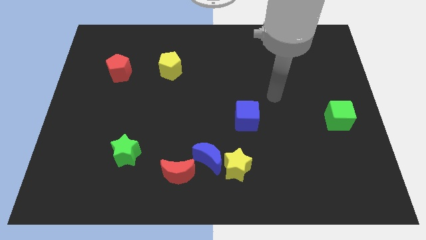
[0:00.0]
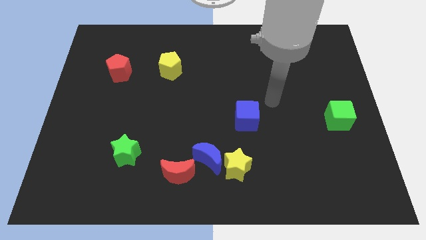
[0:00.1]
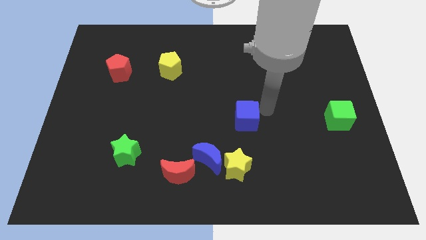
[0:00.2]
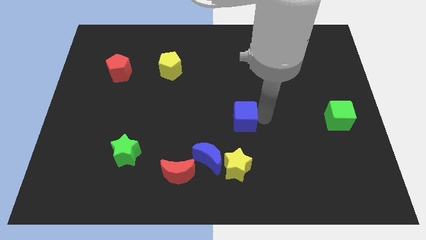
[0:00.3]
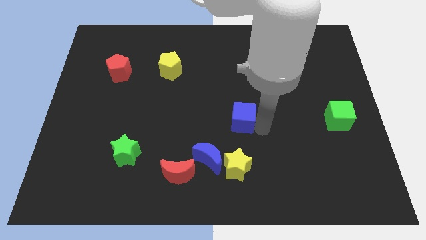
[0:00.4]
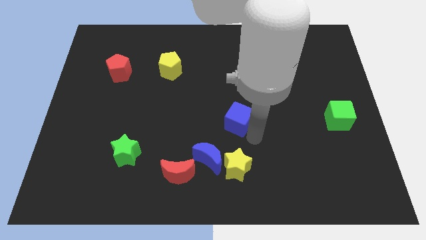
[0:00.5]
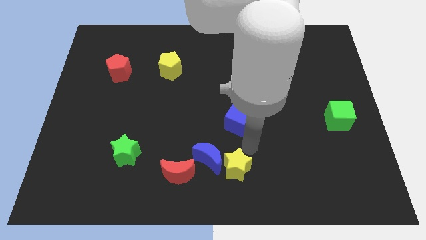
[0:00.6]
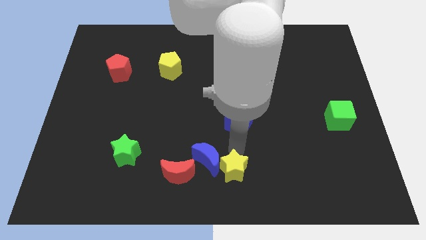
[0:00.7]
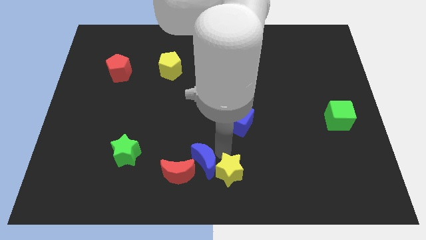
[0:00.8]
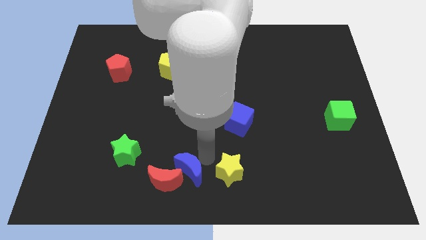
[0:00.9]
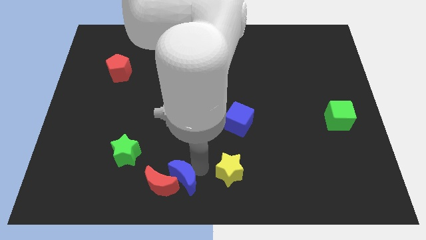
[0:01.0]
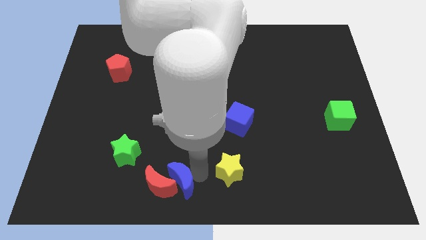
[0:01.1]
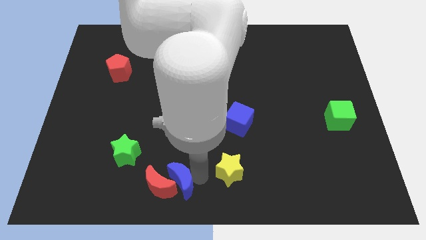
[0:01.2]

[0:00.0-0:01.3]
pull the yellow star apart from the blue moon

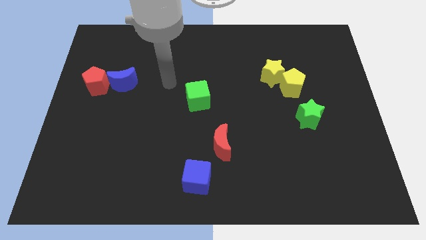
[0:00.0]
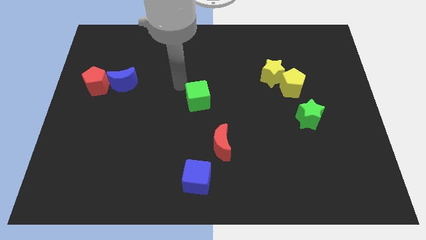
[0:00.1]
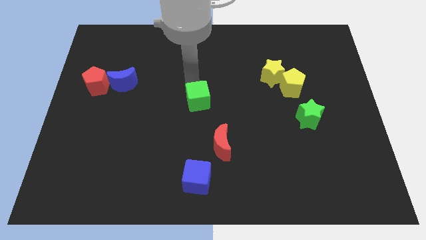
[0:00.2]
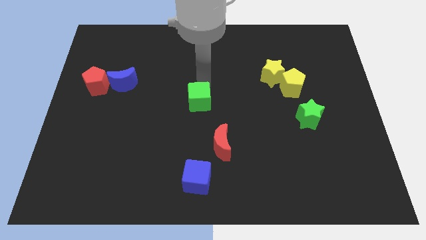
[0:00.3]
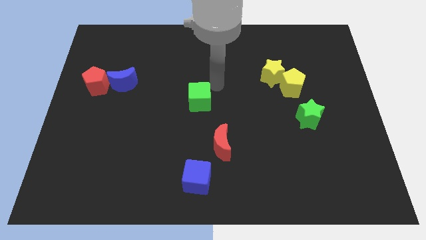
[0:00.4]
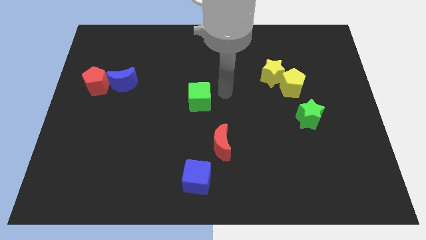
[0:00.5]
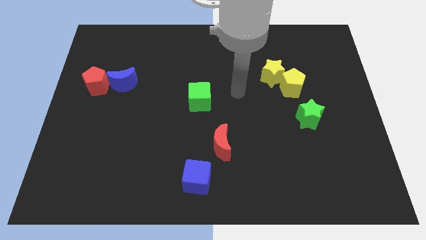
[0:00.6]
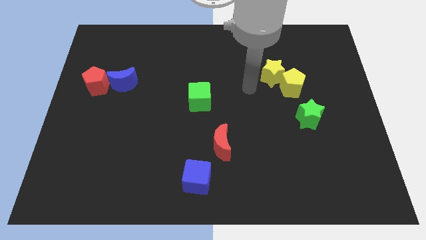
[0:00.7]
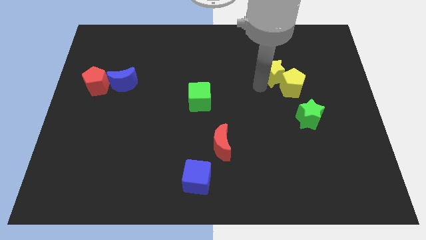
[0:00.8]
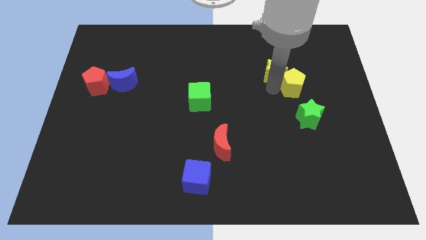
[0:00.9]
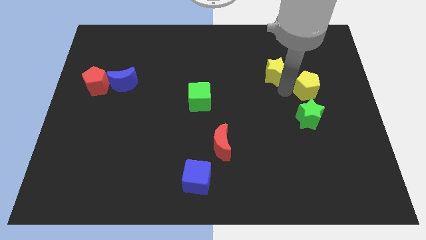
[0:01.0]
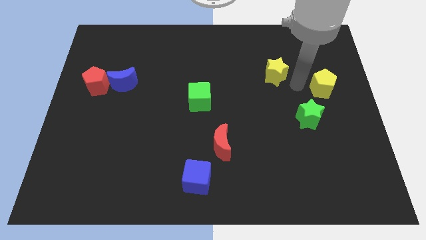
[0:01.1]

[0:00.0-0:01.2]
separate the yellow star from the yellow pentagon

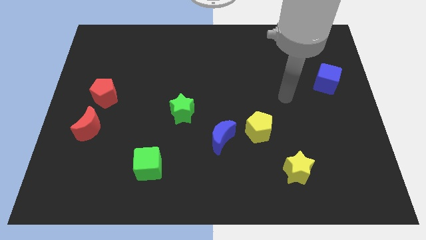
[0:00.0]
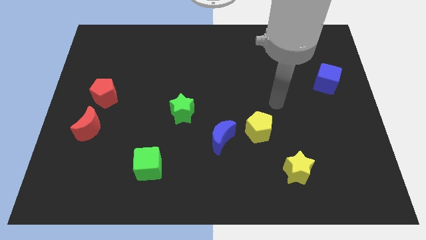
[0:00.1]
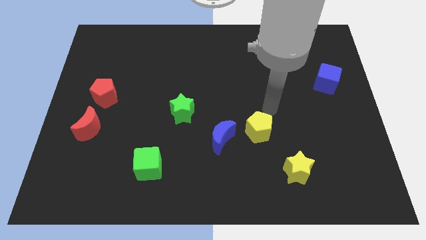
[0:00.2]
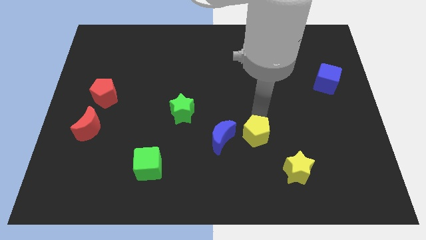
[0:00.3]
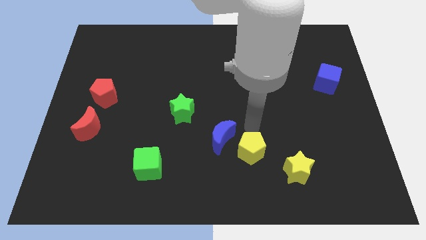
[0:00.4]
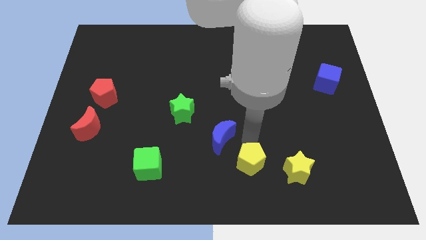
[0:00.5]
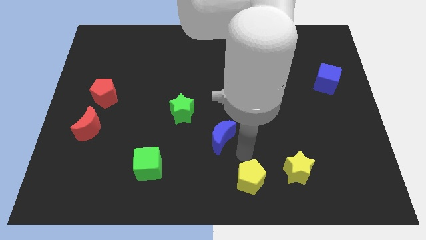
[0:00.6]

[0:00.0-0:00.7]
pull the blue moon apart from the yellow pentagon

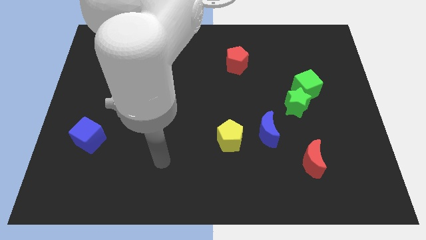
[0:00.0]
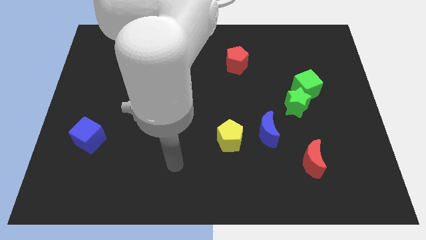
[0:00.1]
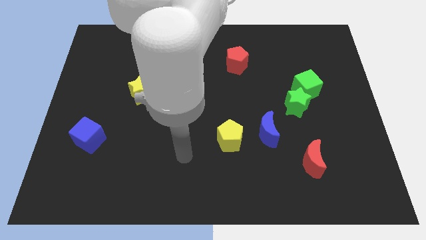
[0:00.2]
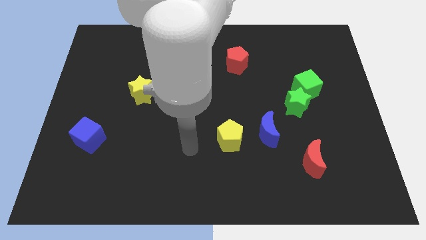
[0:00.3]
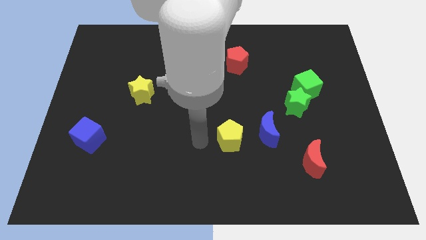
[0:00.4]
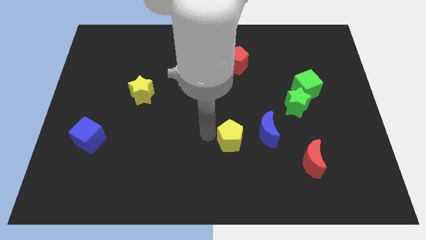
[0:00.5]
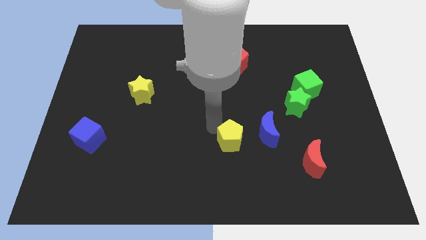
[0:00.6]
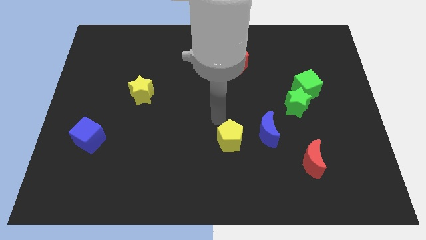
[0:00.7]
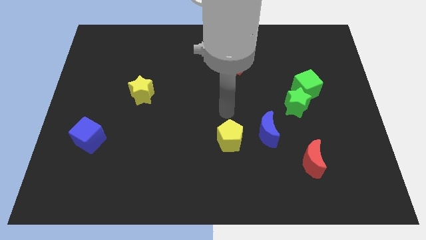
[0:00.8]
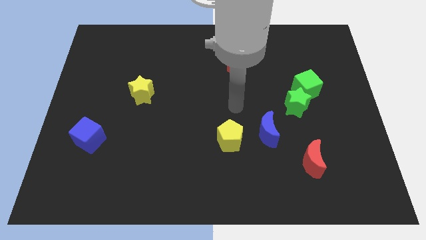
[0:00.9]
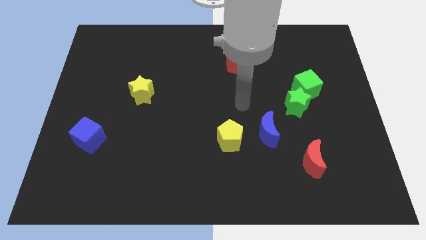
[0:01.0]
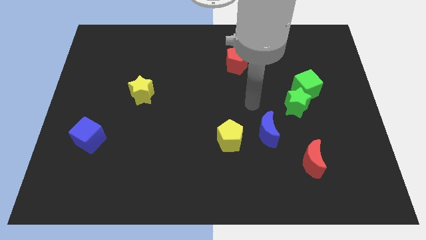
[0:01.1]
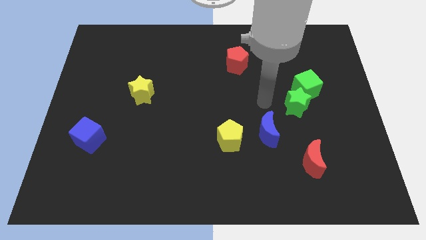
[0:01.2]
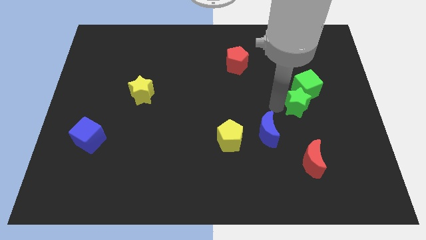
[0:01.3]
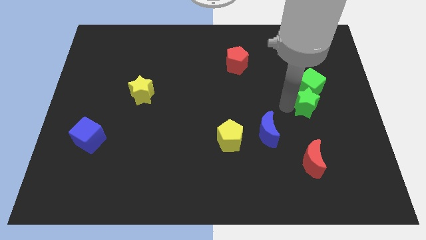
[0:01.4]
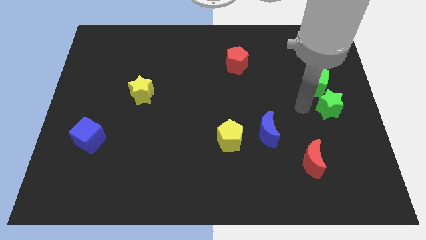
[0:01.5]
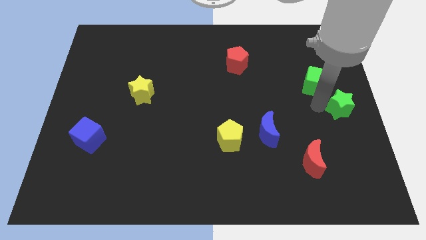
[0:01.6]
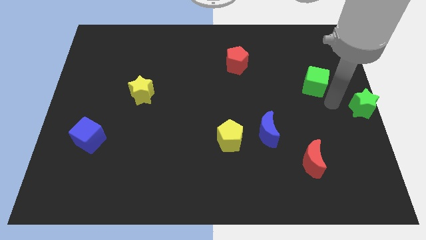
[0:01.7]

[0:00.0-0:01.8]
move the green cube away from the green star

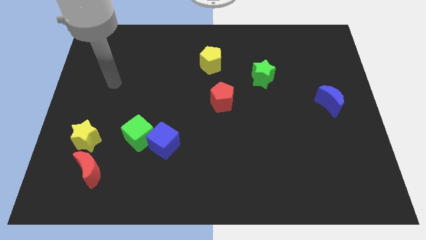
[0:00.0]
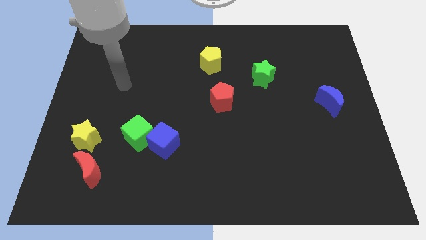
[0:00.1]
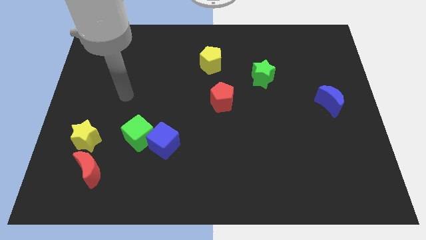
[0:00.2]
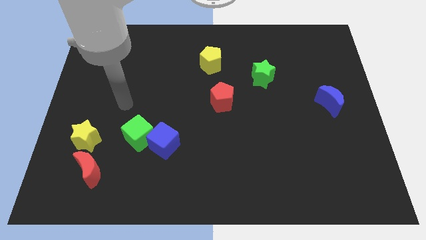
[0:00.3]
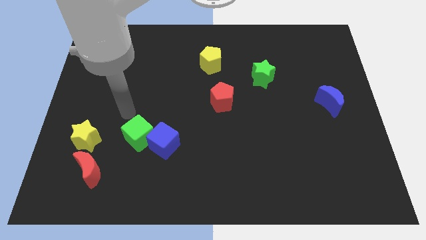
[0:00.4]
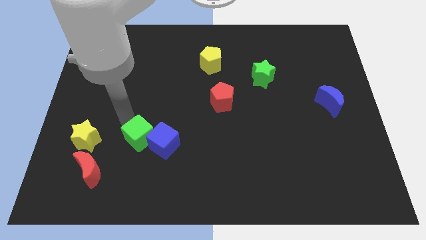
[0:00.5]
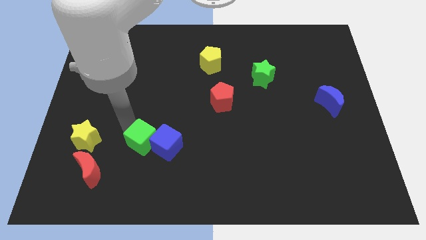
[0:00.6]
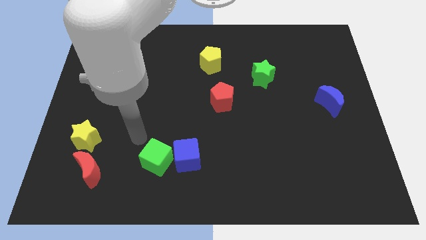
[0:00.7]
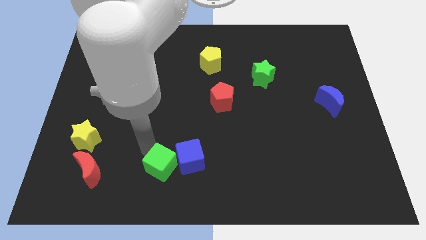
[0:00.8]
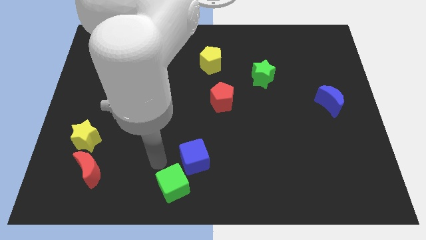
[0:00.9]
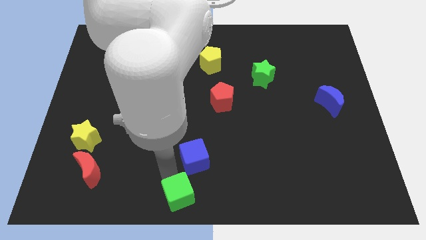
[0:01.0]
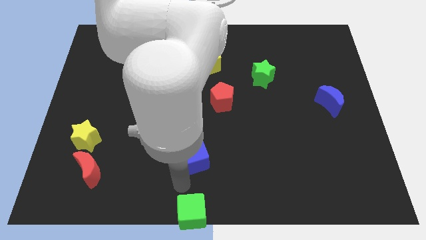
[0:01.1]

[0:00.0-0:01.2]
separate the blue cube from the green cube

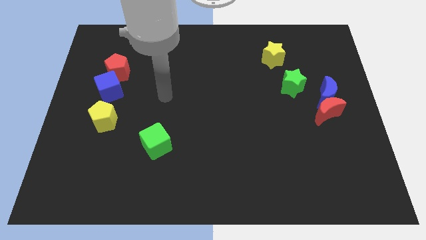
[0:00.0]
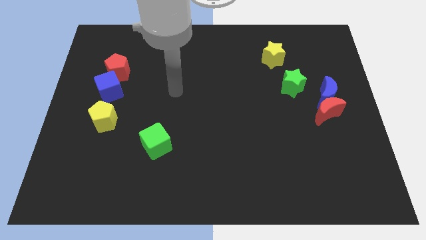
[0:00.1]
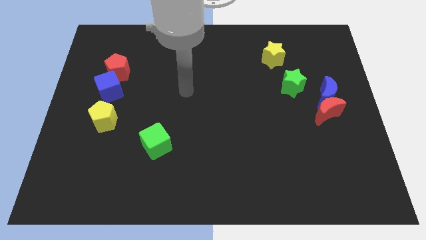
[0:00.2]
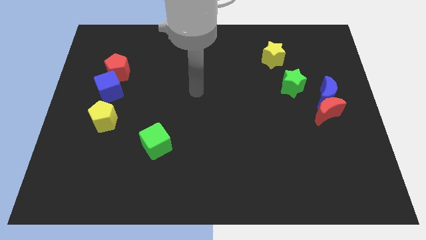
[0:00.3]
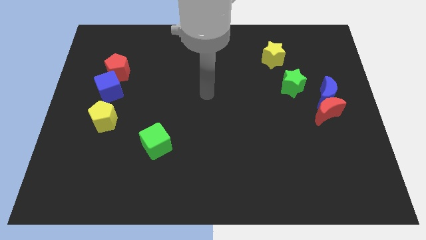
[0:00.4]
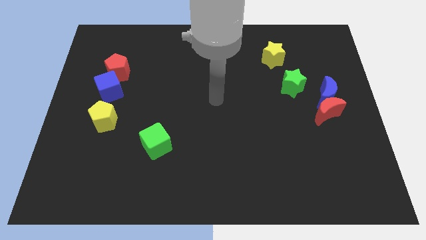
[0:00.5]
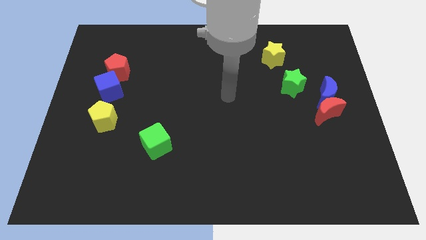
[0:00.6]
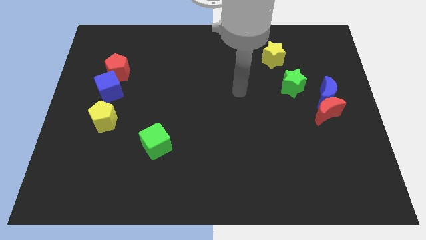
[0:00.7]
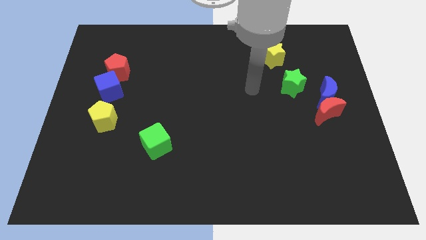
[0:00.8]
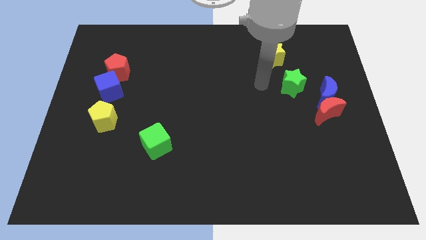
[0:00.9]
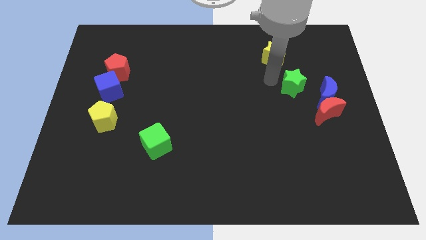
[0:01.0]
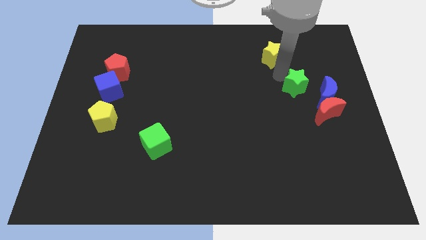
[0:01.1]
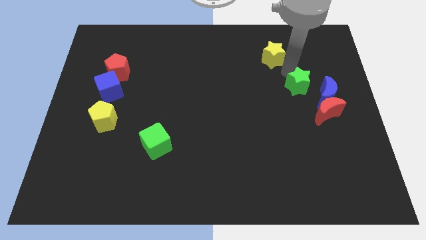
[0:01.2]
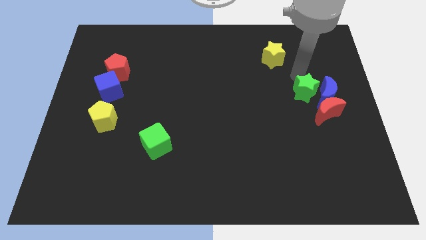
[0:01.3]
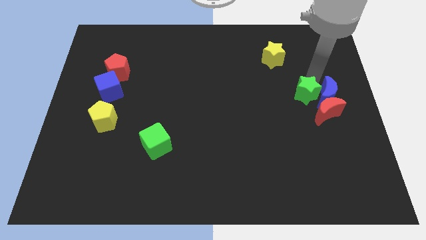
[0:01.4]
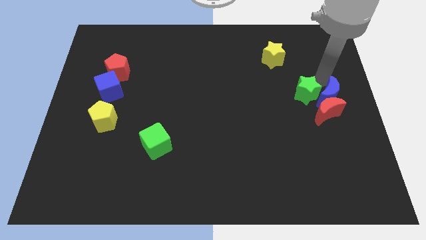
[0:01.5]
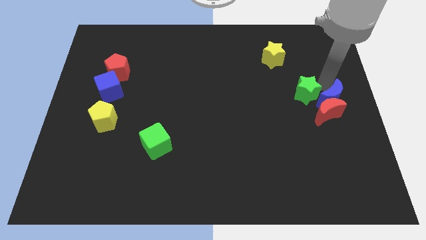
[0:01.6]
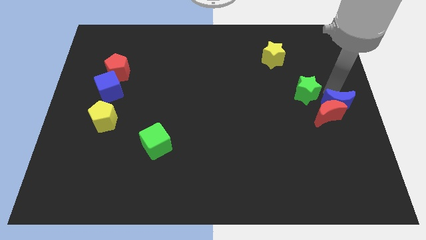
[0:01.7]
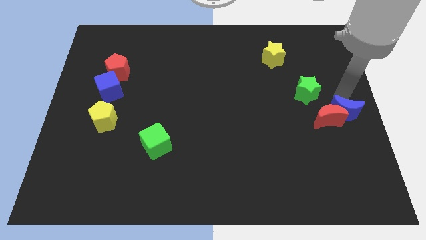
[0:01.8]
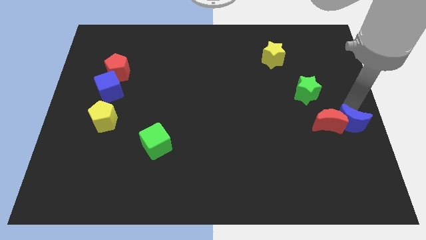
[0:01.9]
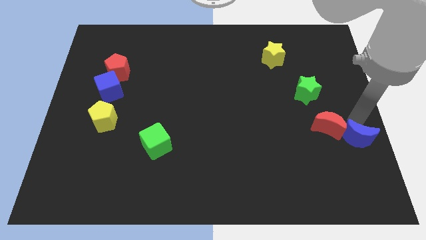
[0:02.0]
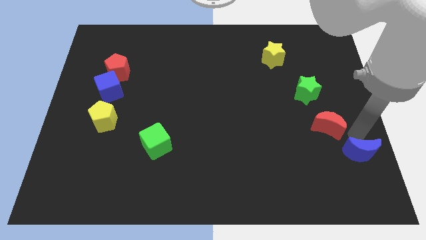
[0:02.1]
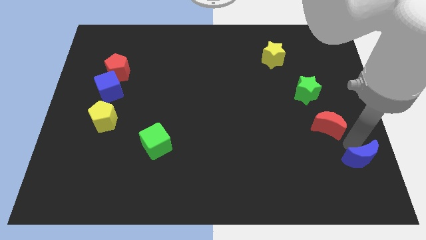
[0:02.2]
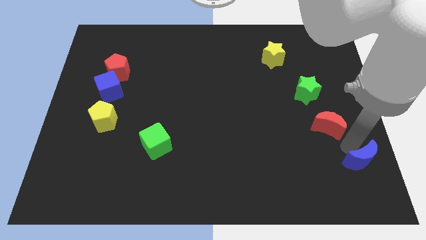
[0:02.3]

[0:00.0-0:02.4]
pull the red moon apart from the blue moon

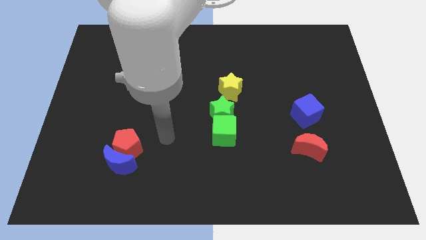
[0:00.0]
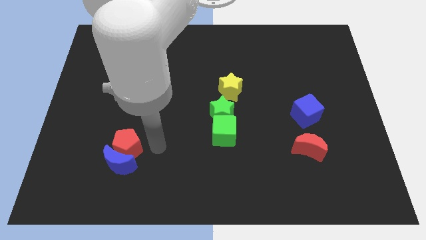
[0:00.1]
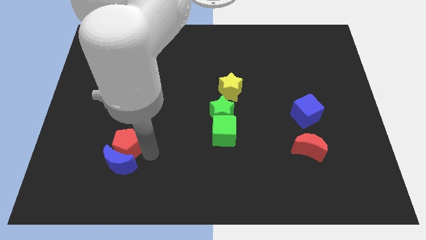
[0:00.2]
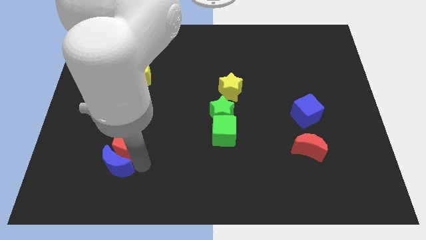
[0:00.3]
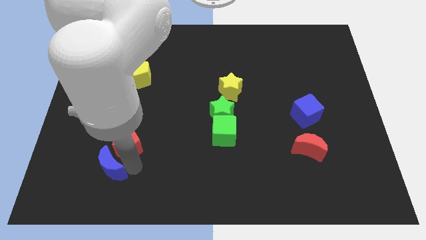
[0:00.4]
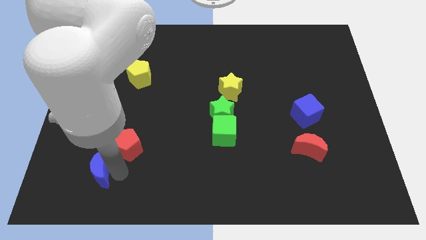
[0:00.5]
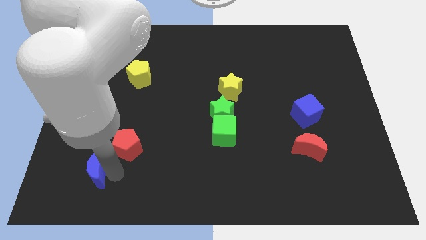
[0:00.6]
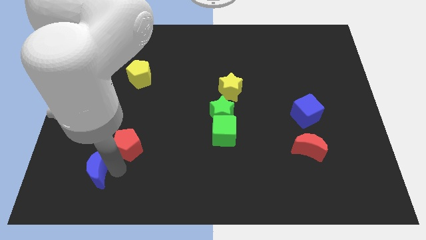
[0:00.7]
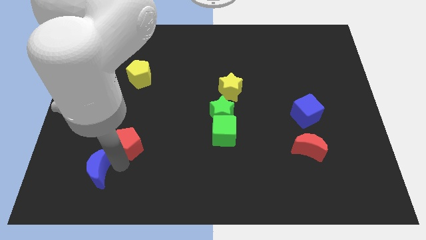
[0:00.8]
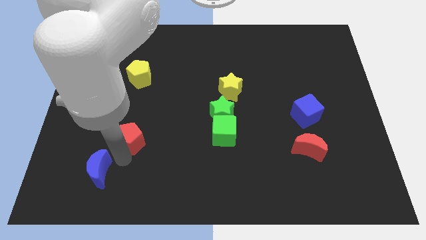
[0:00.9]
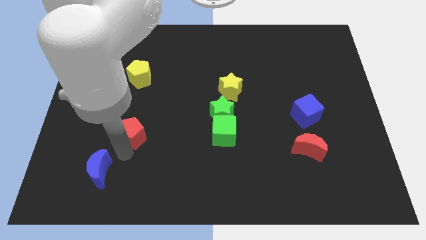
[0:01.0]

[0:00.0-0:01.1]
move the red pentagon away from the blue moon
